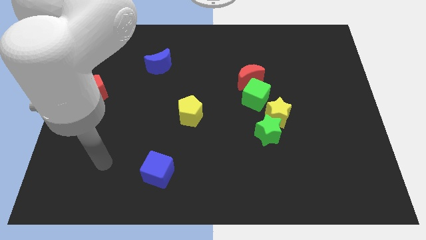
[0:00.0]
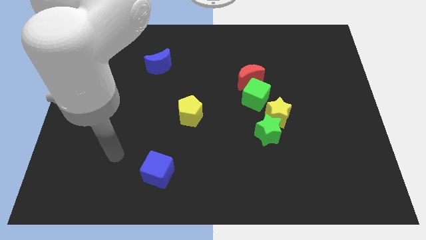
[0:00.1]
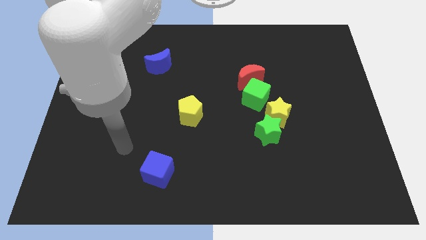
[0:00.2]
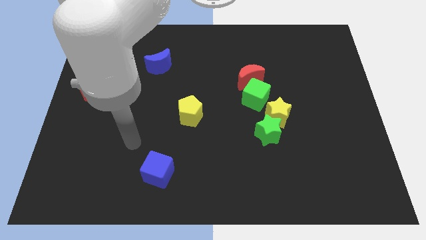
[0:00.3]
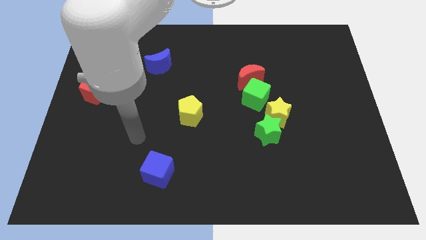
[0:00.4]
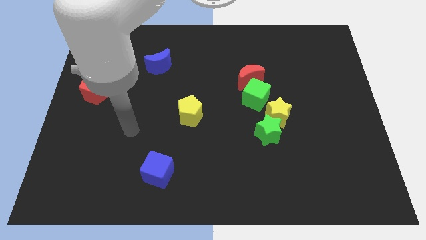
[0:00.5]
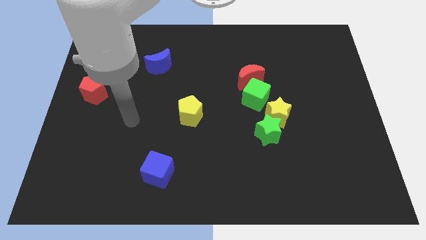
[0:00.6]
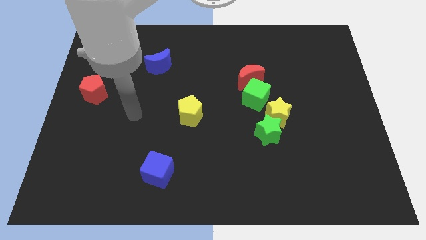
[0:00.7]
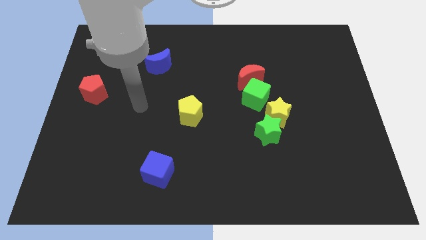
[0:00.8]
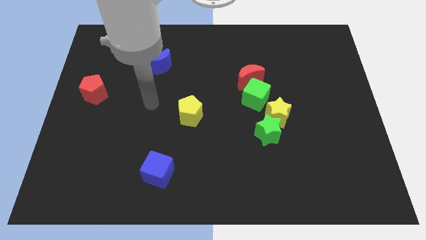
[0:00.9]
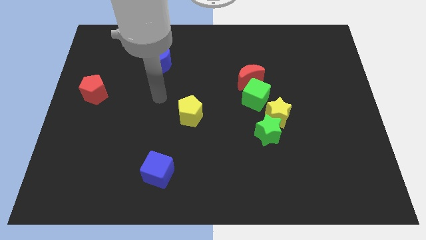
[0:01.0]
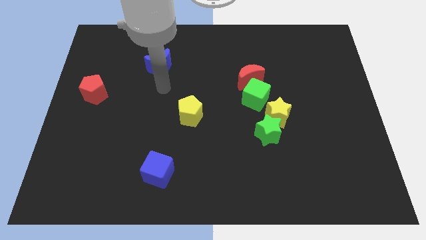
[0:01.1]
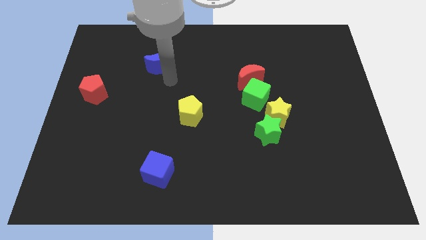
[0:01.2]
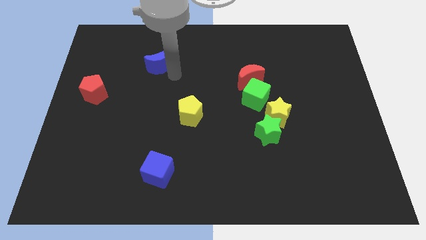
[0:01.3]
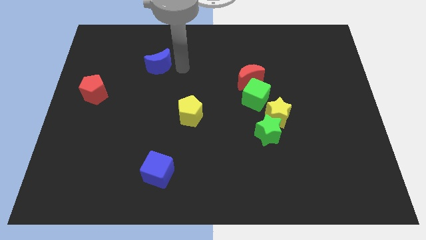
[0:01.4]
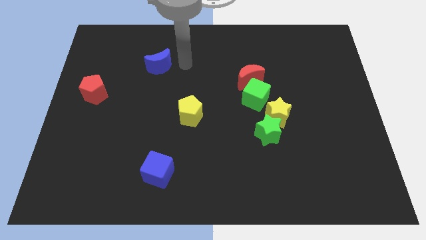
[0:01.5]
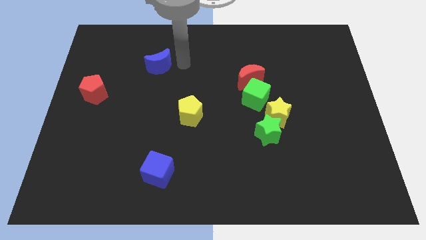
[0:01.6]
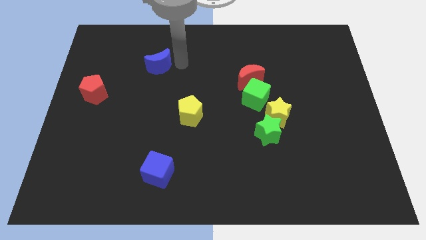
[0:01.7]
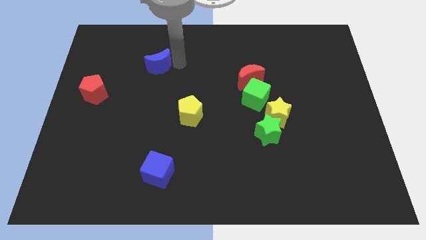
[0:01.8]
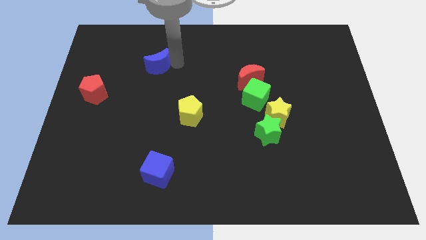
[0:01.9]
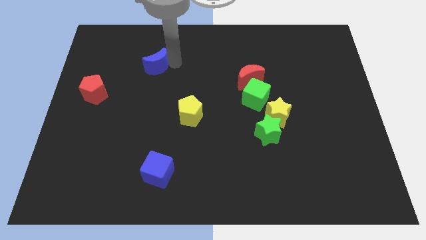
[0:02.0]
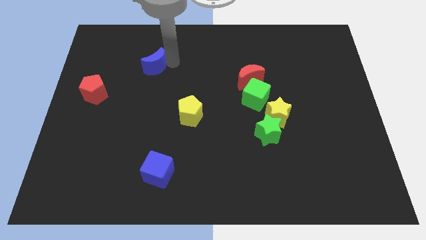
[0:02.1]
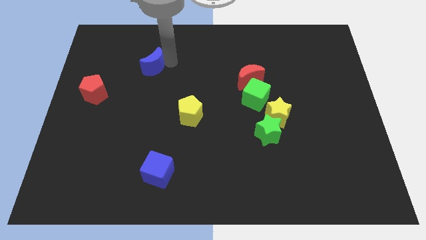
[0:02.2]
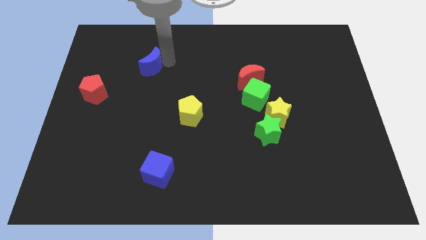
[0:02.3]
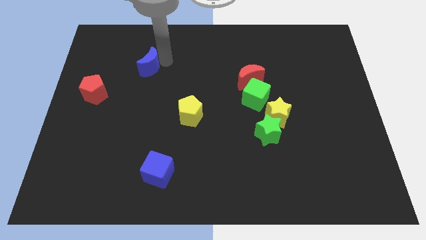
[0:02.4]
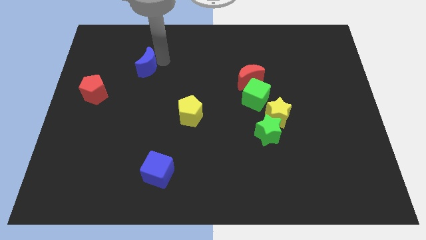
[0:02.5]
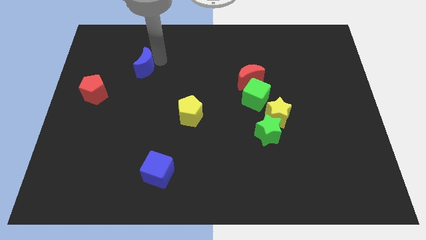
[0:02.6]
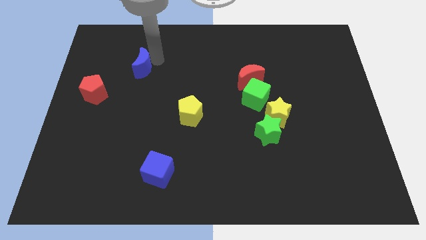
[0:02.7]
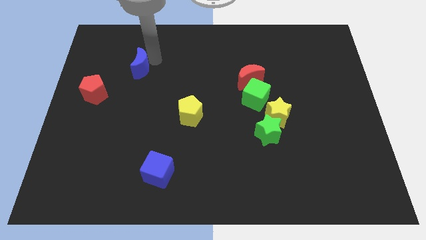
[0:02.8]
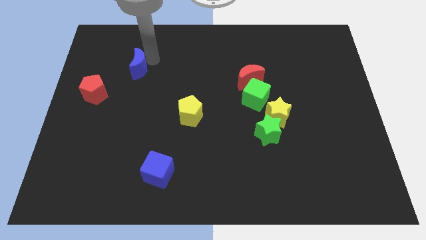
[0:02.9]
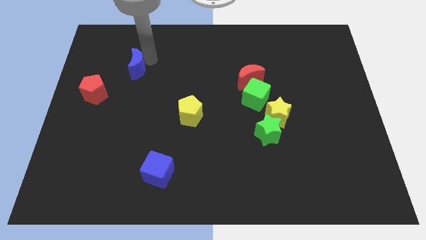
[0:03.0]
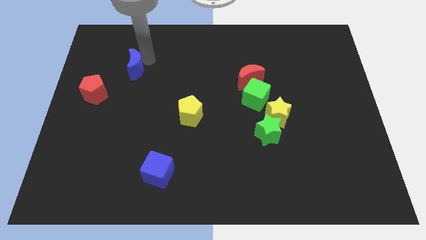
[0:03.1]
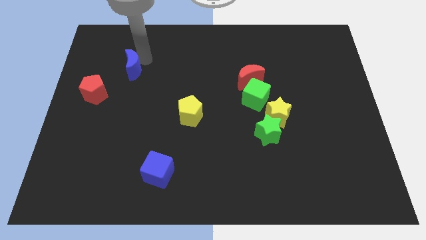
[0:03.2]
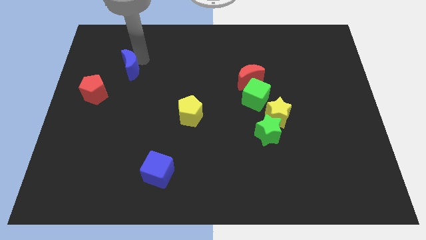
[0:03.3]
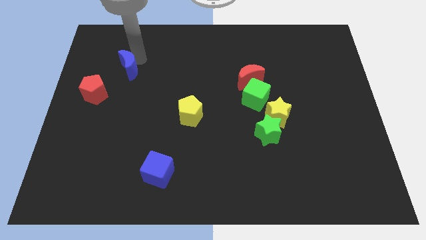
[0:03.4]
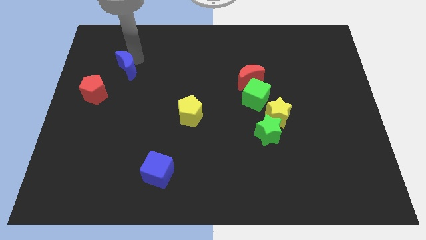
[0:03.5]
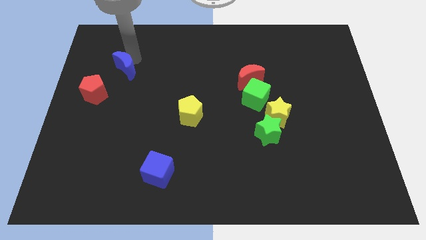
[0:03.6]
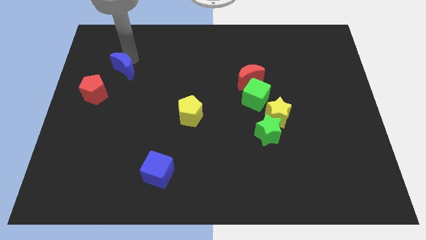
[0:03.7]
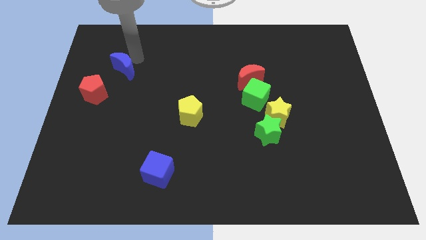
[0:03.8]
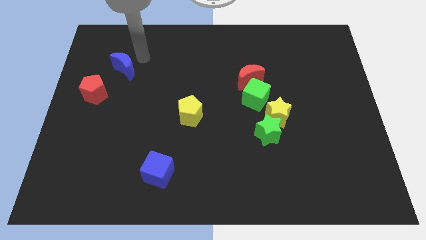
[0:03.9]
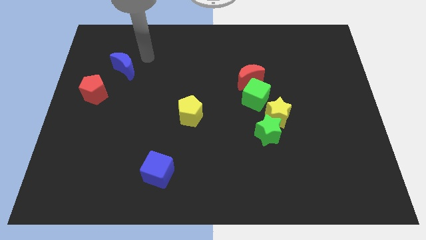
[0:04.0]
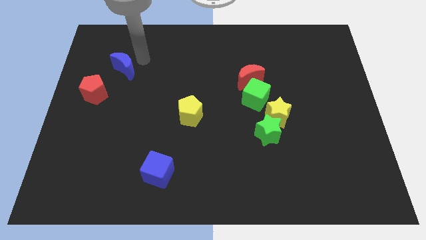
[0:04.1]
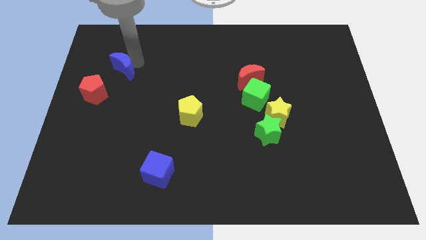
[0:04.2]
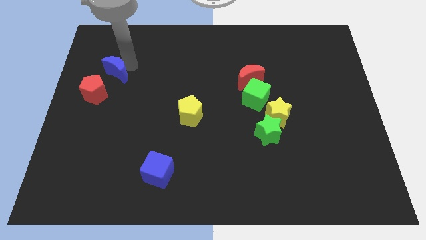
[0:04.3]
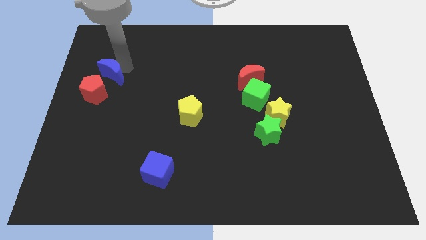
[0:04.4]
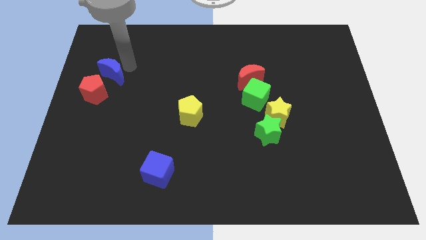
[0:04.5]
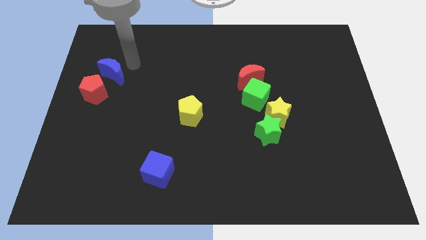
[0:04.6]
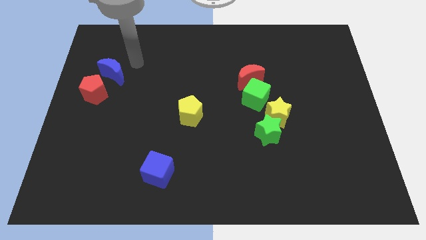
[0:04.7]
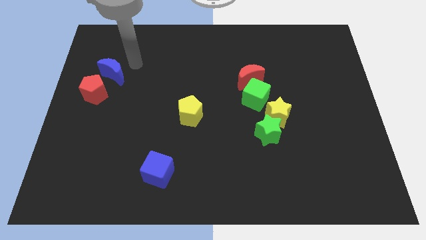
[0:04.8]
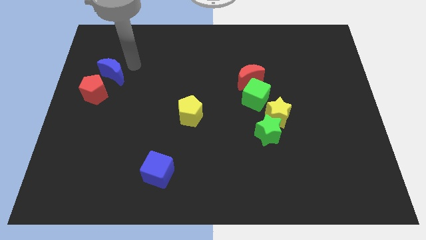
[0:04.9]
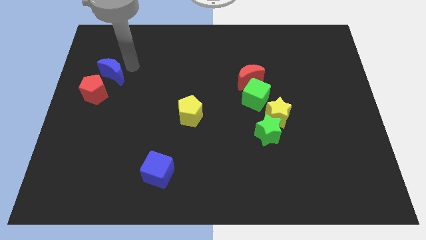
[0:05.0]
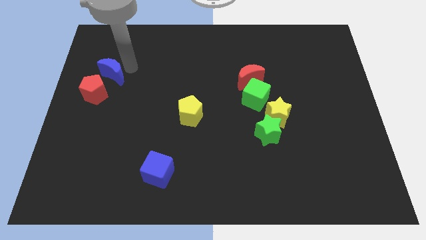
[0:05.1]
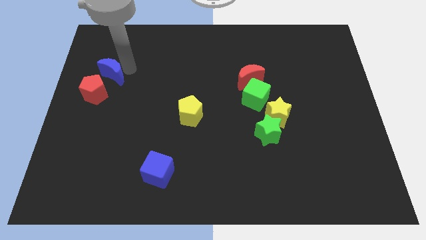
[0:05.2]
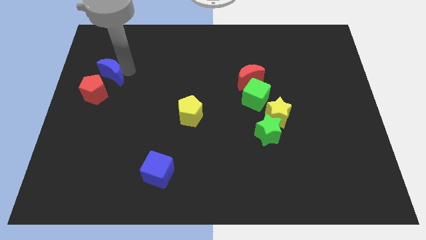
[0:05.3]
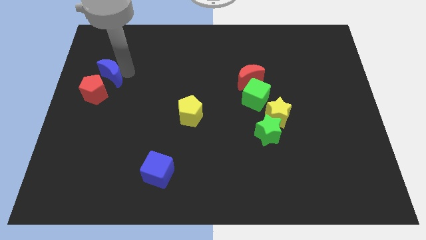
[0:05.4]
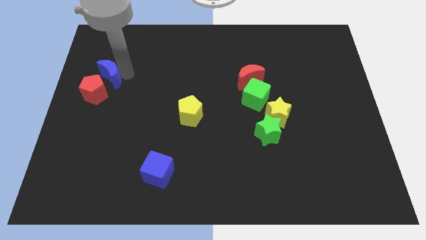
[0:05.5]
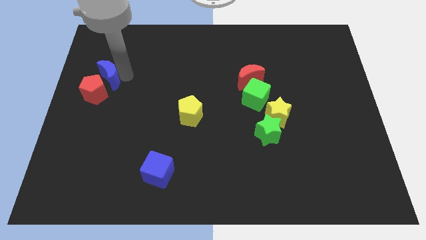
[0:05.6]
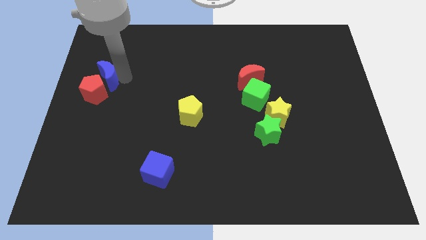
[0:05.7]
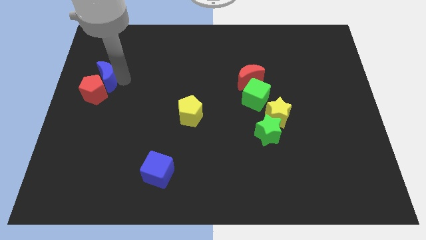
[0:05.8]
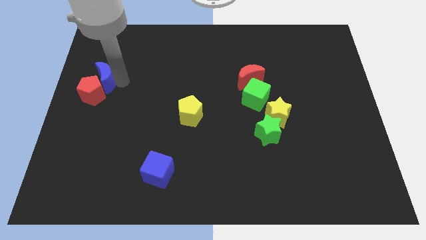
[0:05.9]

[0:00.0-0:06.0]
move the blue moon to the center left

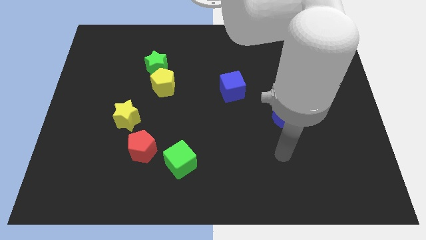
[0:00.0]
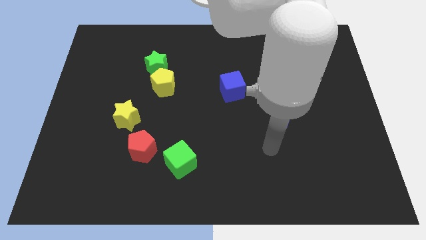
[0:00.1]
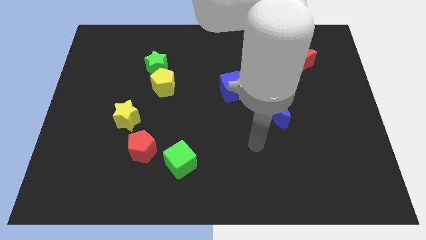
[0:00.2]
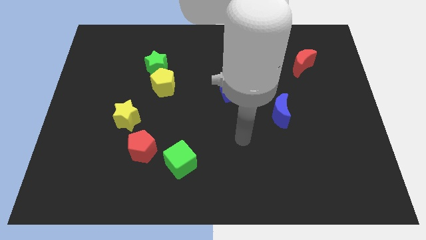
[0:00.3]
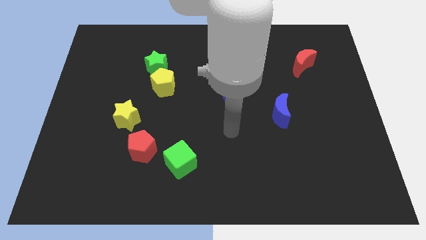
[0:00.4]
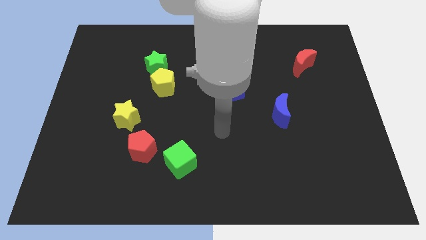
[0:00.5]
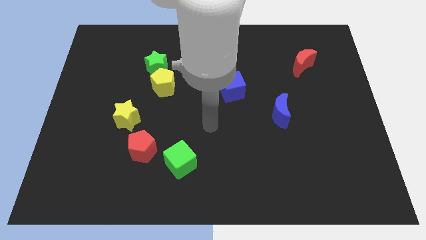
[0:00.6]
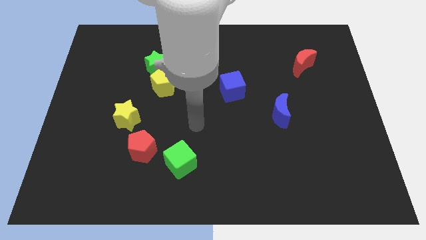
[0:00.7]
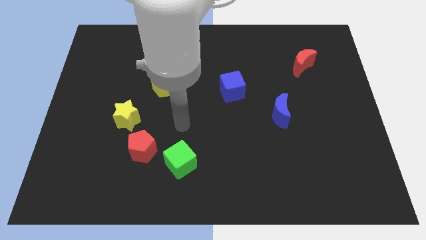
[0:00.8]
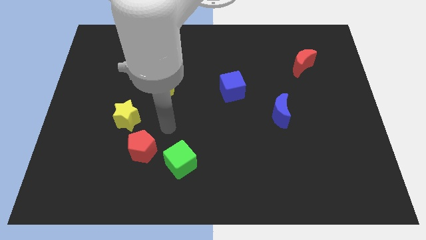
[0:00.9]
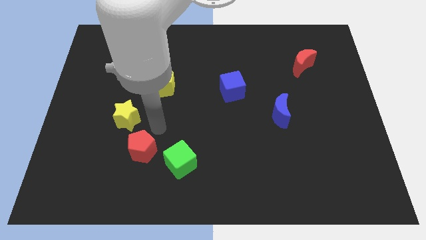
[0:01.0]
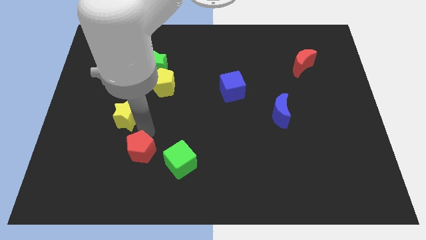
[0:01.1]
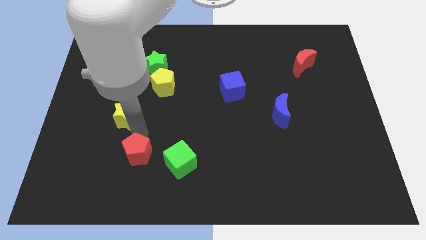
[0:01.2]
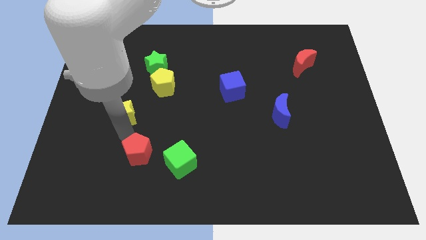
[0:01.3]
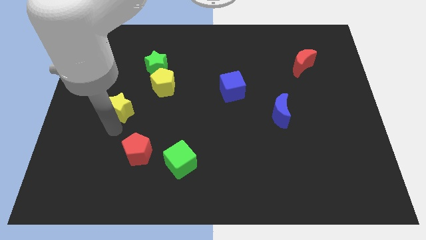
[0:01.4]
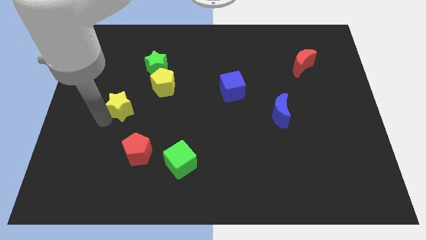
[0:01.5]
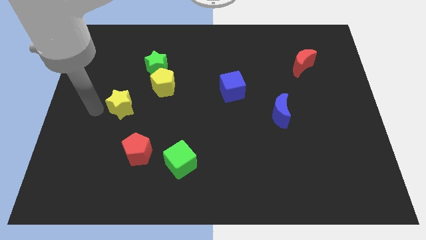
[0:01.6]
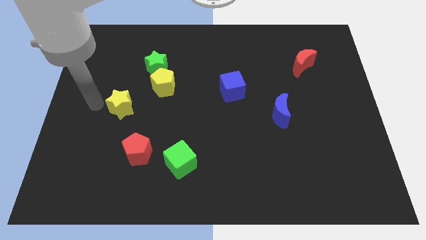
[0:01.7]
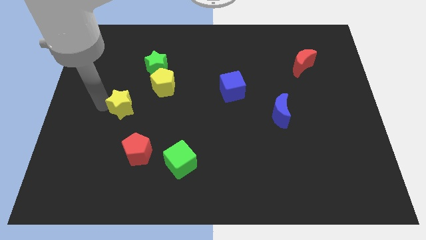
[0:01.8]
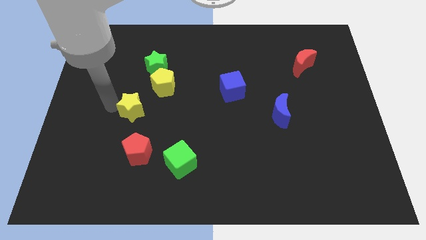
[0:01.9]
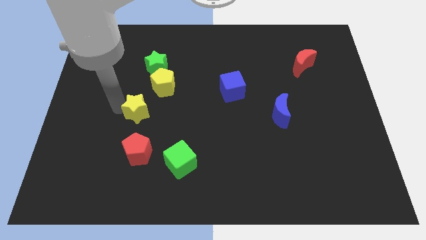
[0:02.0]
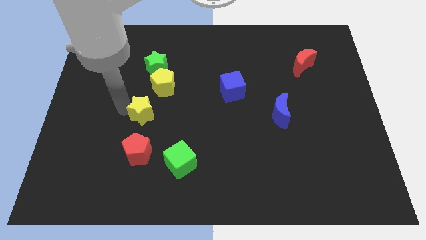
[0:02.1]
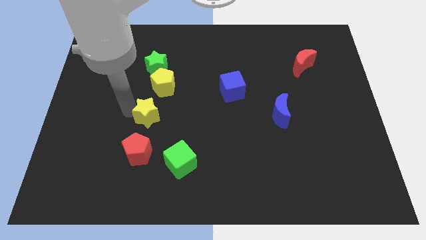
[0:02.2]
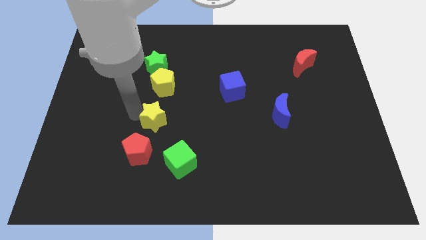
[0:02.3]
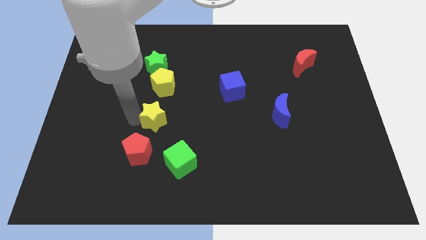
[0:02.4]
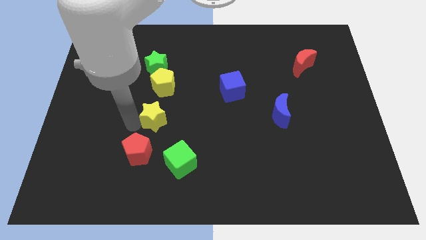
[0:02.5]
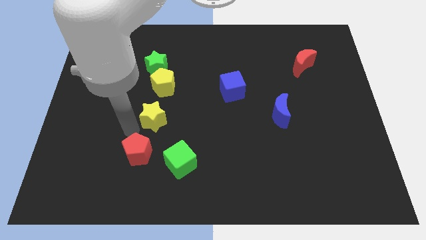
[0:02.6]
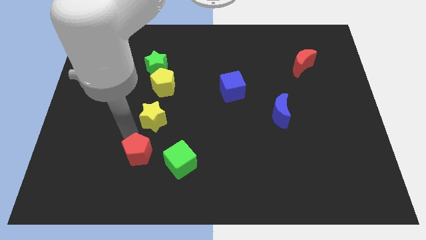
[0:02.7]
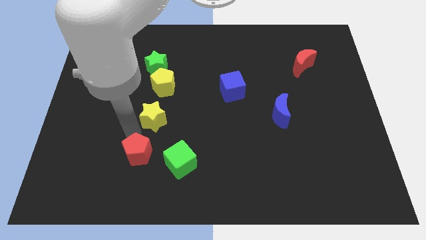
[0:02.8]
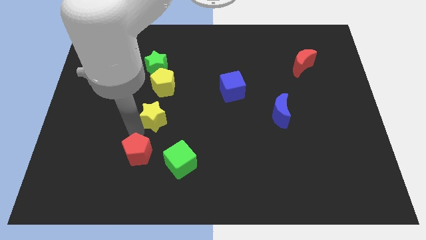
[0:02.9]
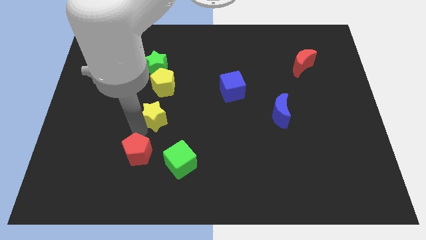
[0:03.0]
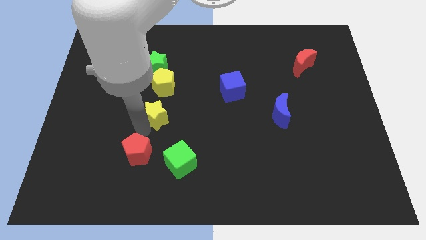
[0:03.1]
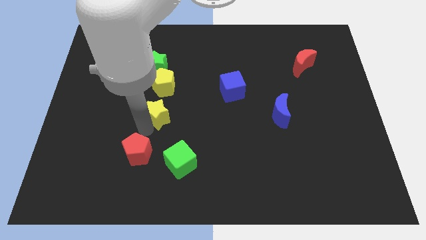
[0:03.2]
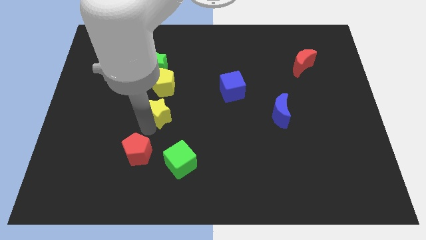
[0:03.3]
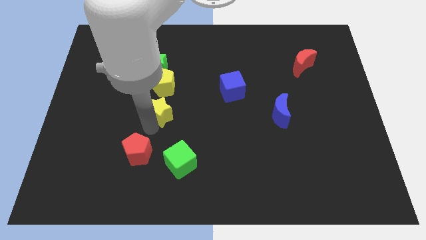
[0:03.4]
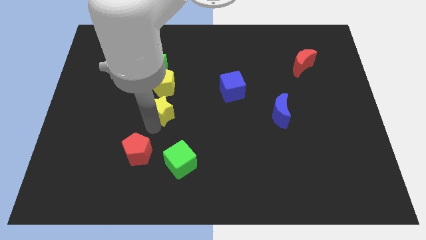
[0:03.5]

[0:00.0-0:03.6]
push the yellow star to the middle
